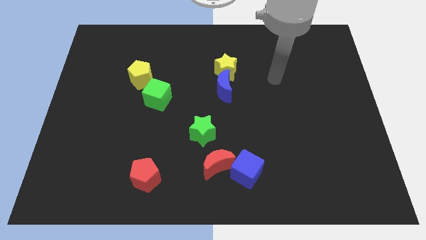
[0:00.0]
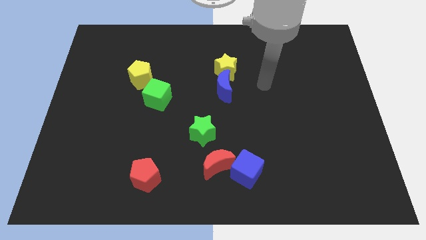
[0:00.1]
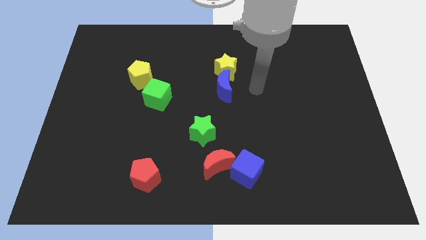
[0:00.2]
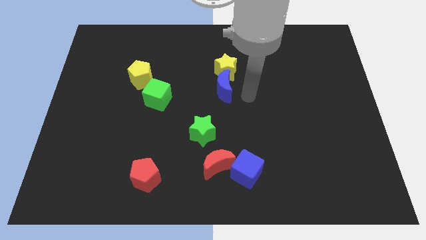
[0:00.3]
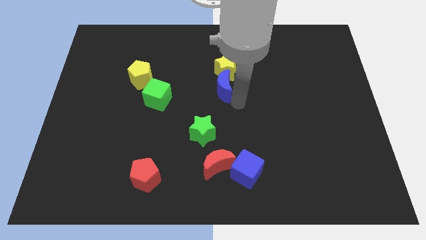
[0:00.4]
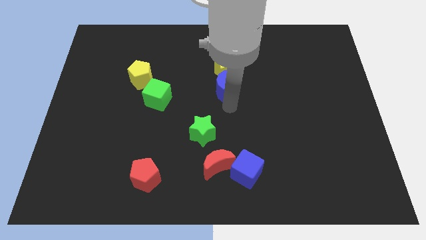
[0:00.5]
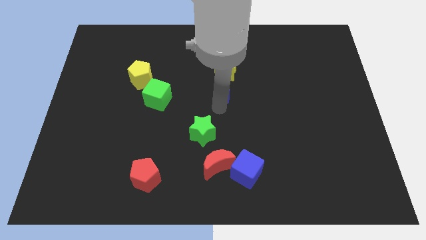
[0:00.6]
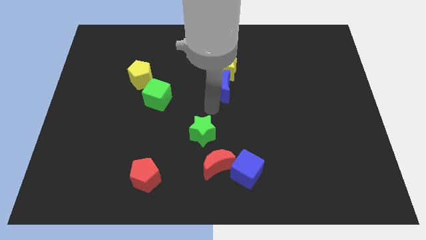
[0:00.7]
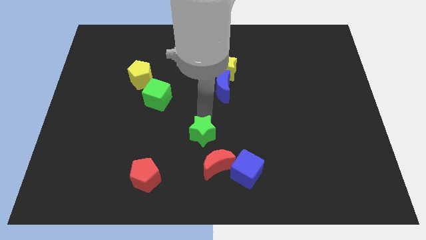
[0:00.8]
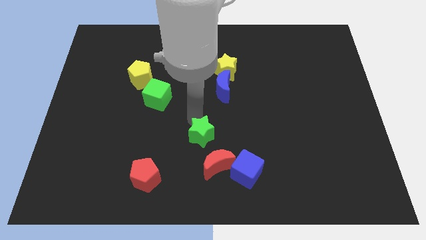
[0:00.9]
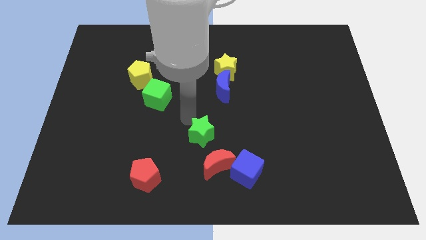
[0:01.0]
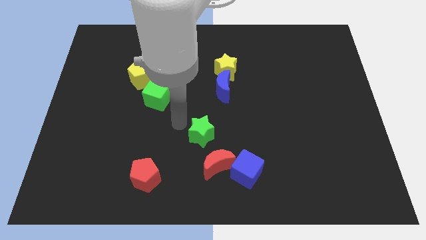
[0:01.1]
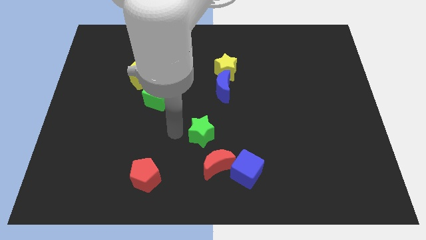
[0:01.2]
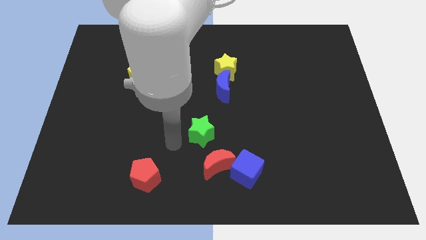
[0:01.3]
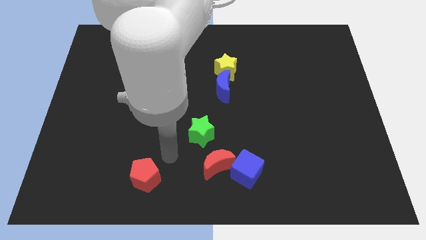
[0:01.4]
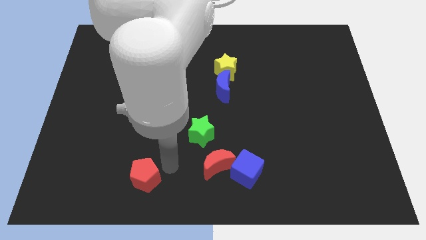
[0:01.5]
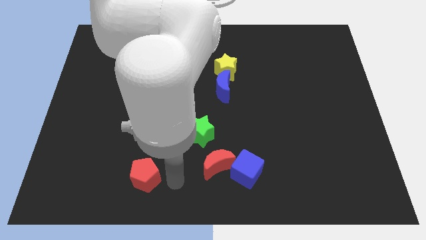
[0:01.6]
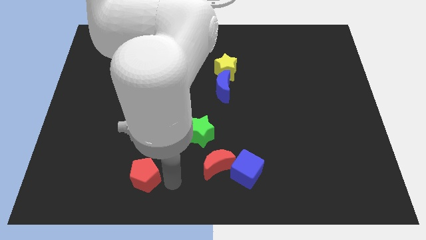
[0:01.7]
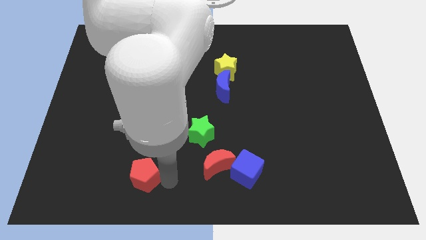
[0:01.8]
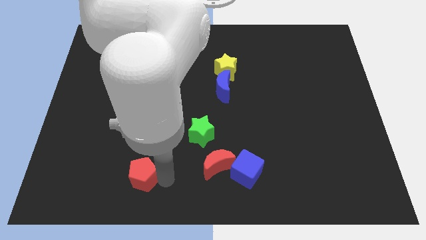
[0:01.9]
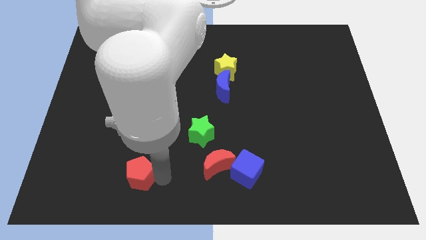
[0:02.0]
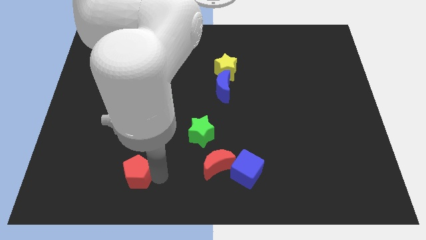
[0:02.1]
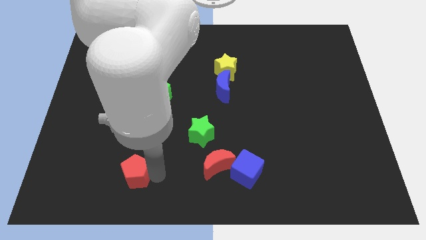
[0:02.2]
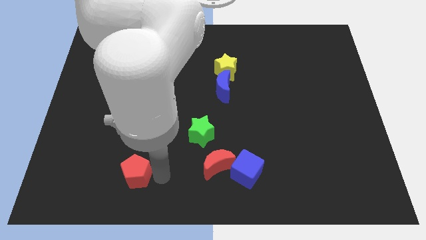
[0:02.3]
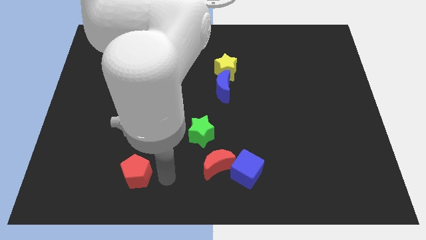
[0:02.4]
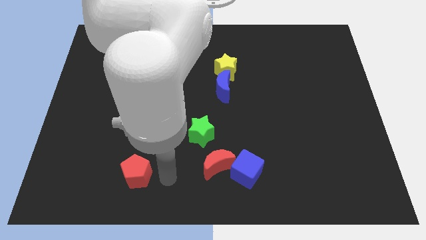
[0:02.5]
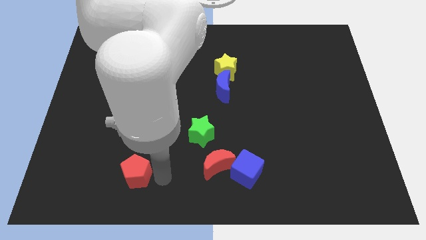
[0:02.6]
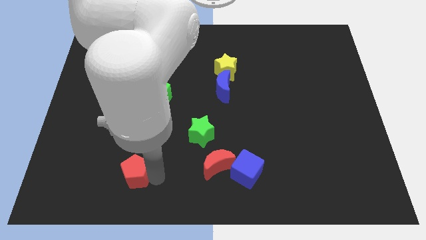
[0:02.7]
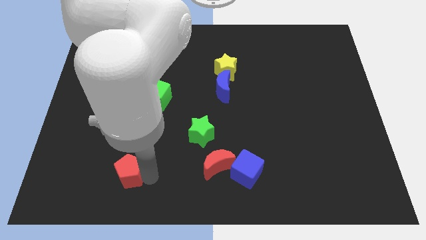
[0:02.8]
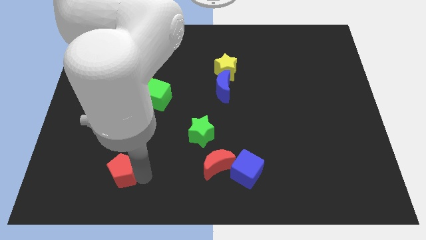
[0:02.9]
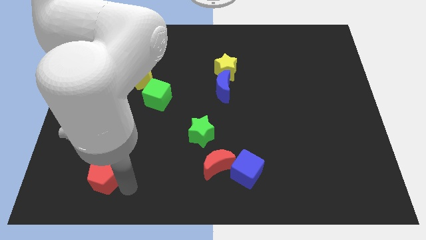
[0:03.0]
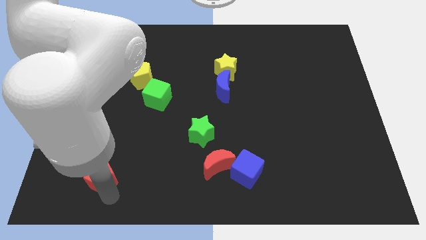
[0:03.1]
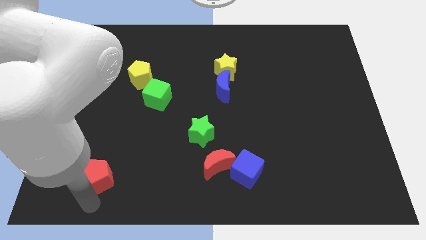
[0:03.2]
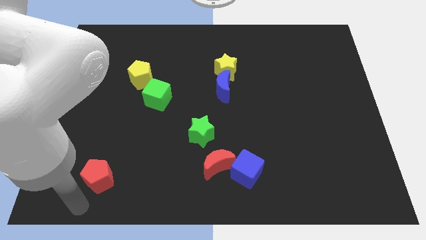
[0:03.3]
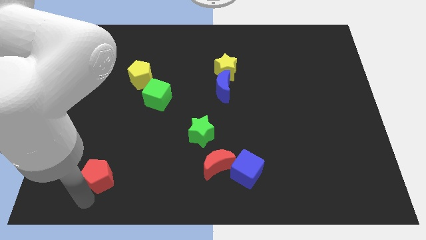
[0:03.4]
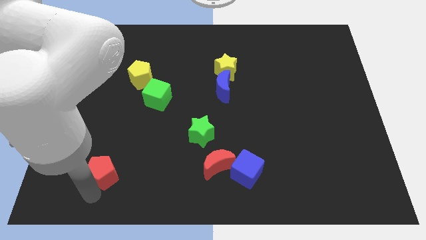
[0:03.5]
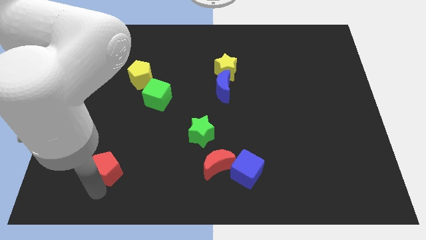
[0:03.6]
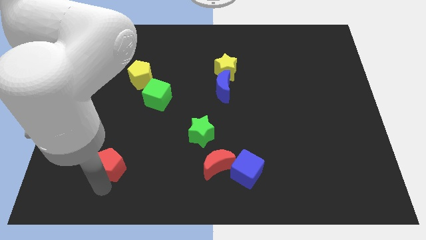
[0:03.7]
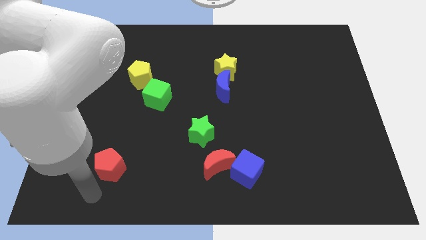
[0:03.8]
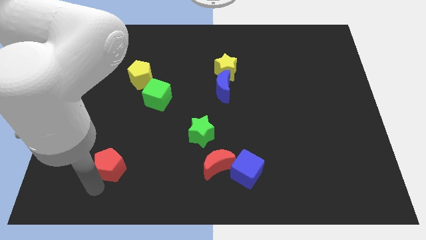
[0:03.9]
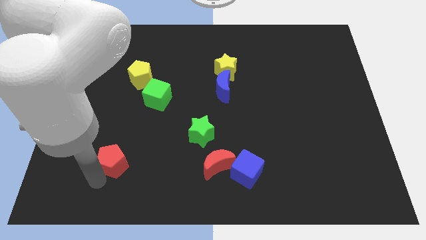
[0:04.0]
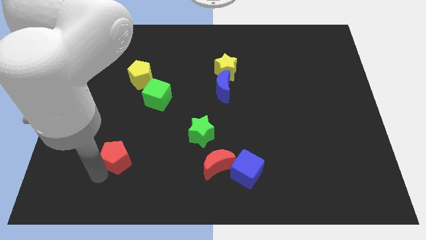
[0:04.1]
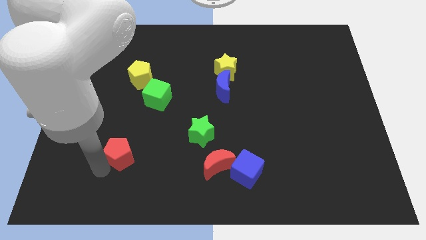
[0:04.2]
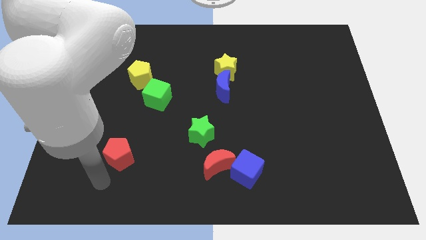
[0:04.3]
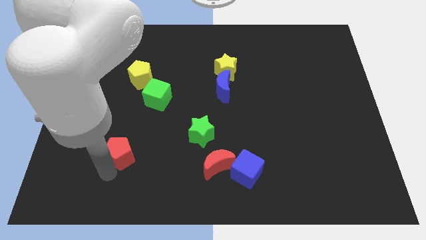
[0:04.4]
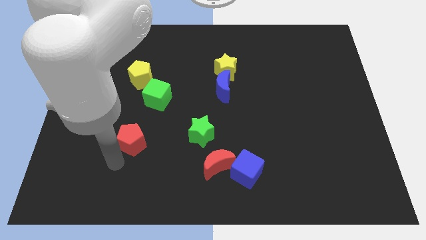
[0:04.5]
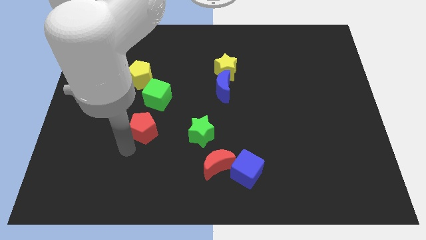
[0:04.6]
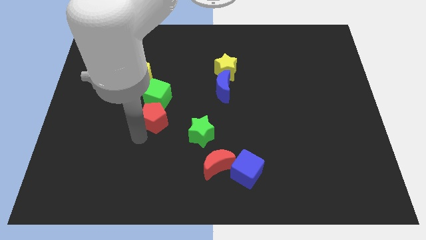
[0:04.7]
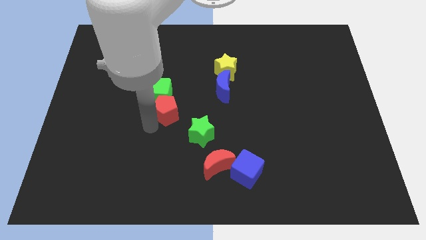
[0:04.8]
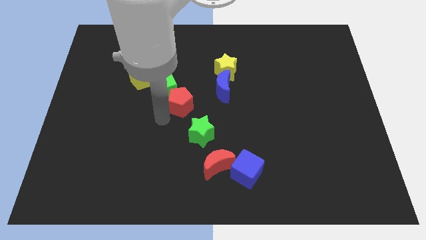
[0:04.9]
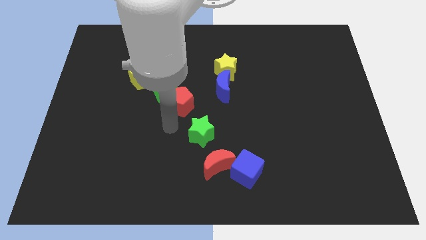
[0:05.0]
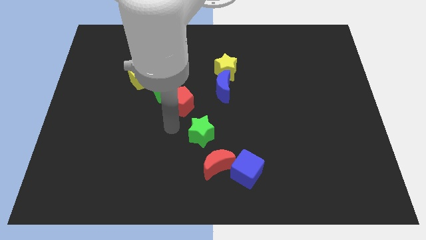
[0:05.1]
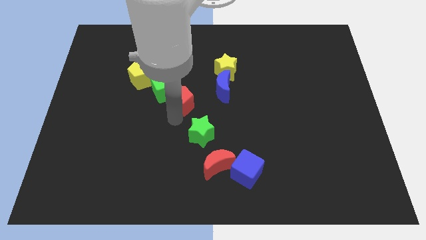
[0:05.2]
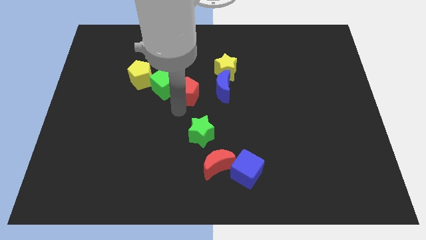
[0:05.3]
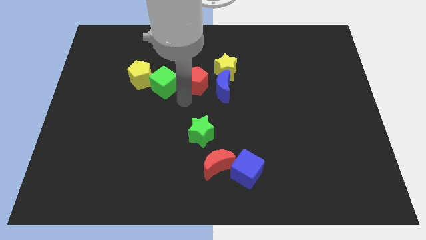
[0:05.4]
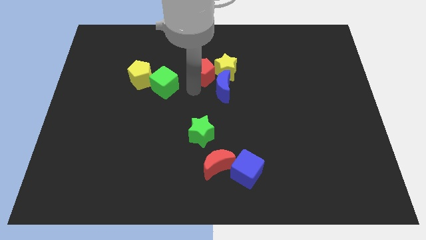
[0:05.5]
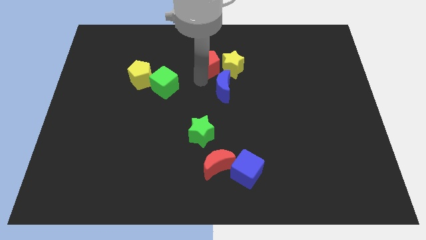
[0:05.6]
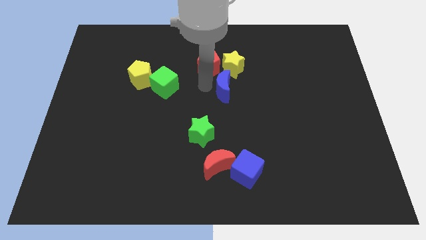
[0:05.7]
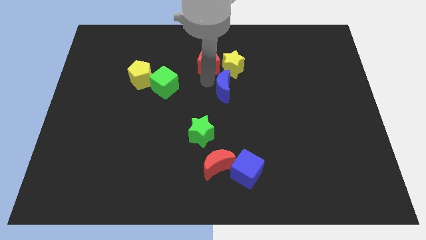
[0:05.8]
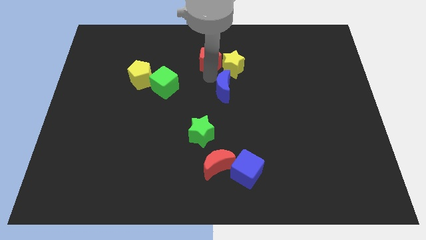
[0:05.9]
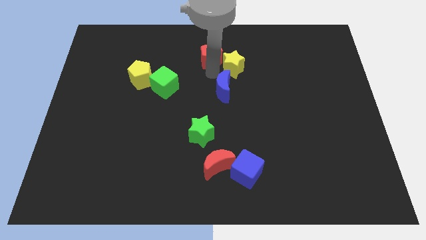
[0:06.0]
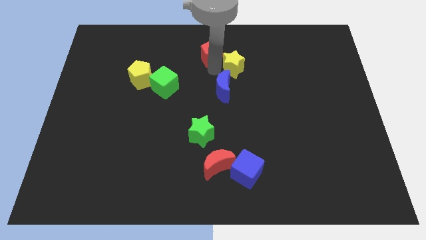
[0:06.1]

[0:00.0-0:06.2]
push the red pentagon to the top side
